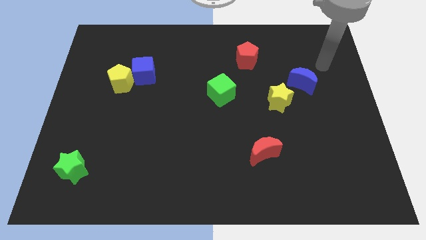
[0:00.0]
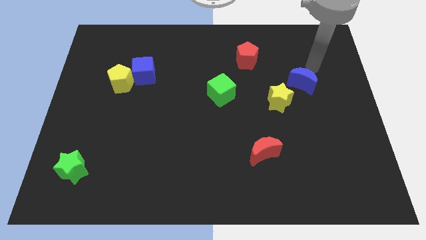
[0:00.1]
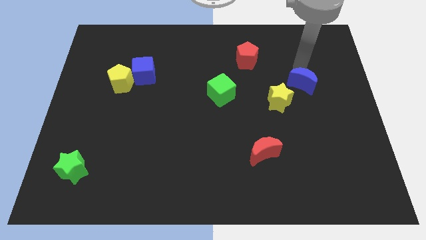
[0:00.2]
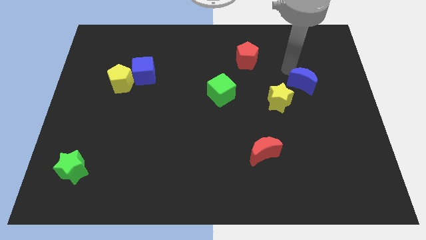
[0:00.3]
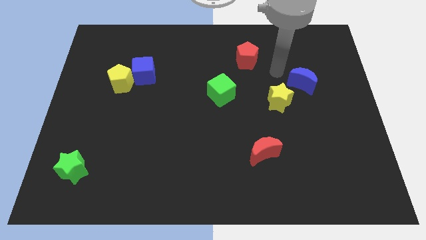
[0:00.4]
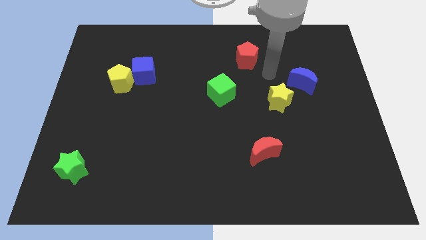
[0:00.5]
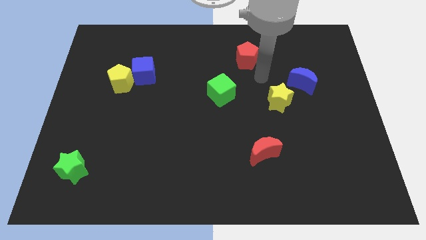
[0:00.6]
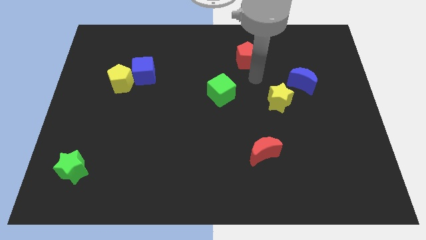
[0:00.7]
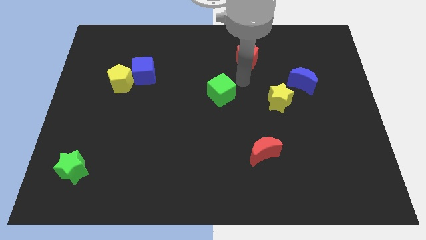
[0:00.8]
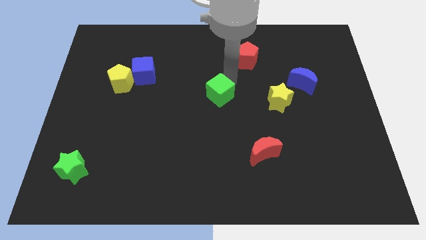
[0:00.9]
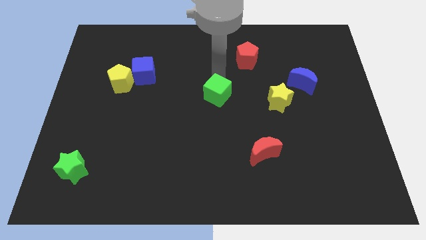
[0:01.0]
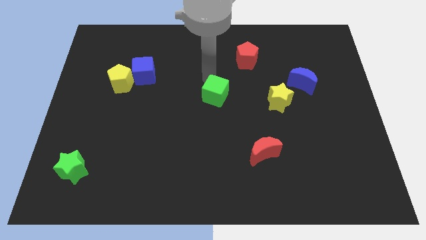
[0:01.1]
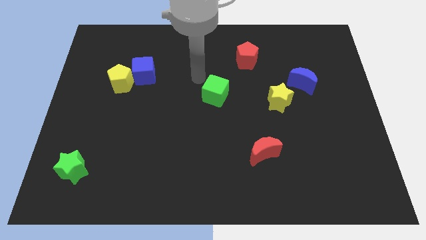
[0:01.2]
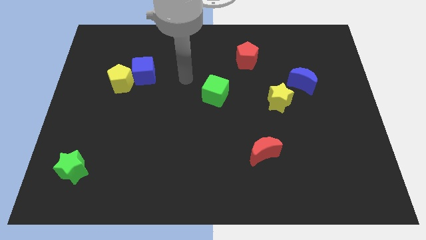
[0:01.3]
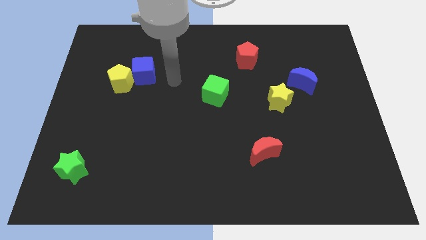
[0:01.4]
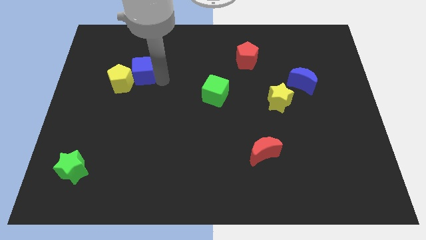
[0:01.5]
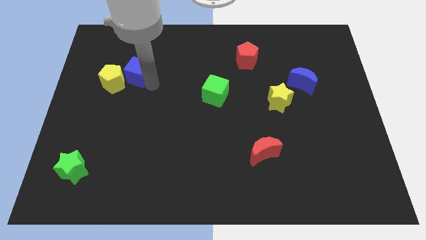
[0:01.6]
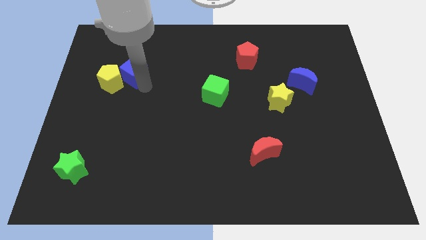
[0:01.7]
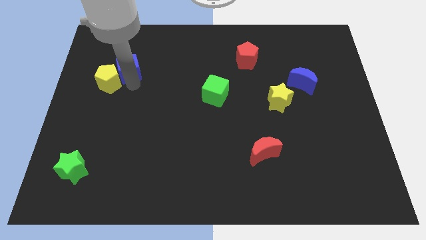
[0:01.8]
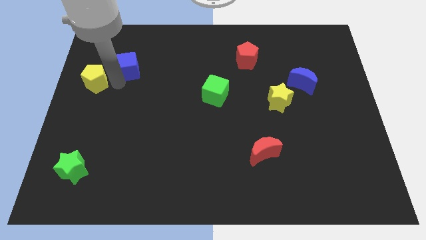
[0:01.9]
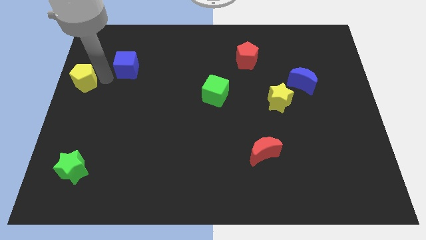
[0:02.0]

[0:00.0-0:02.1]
move the blue cube away from the yellow pentagon

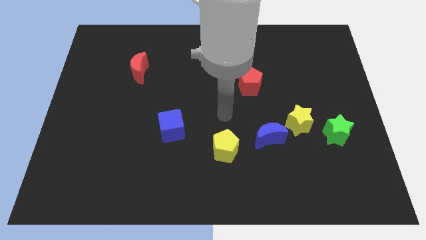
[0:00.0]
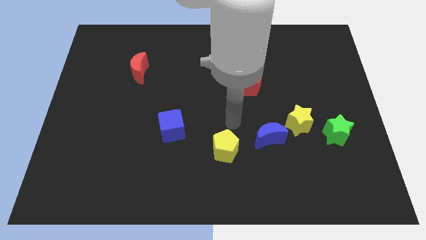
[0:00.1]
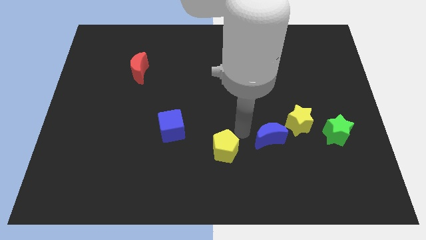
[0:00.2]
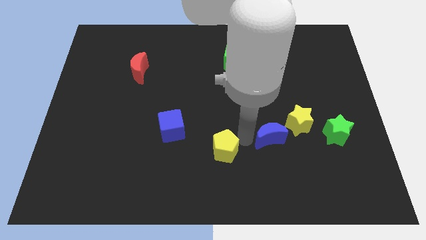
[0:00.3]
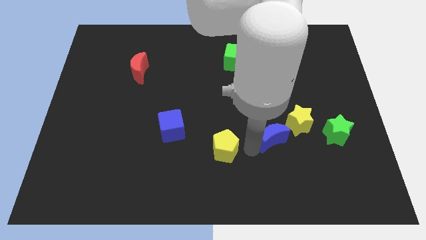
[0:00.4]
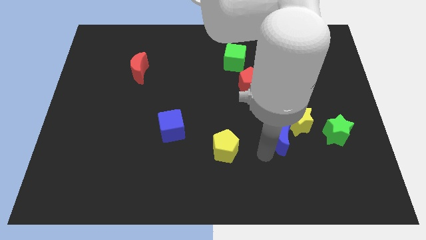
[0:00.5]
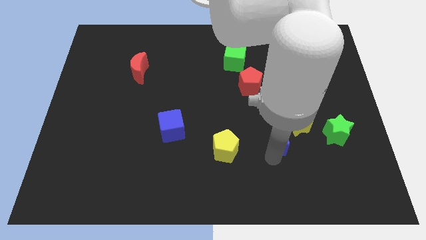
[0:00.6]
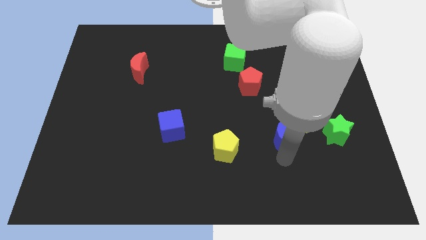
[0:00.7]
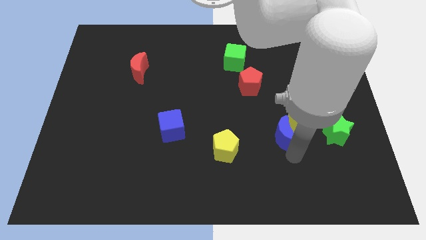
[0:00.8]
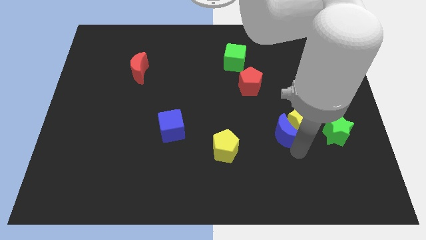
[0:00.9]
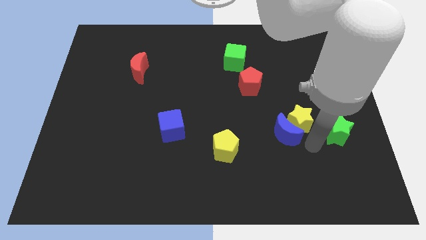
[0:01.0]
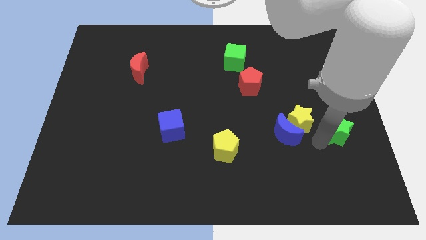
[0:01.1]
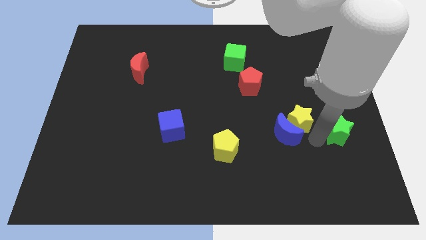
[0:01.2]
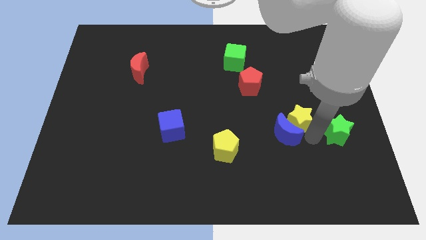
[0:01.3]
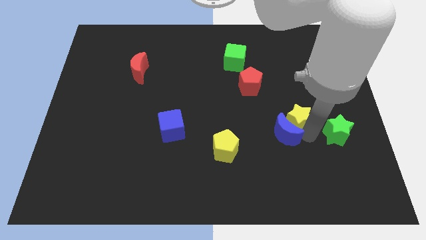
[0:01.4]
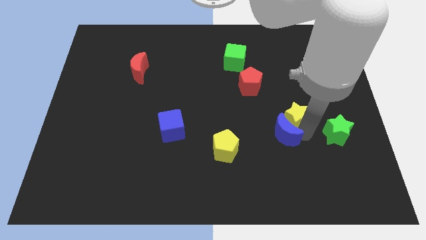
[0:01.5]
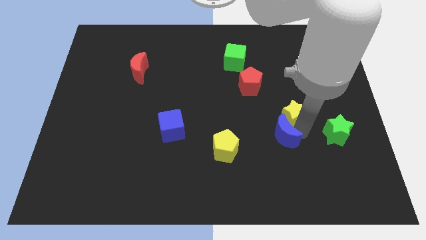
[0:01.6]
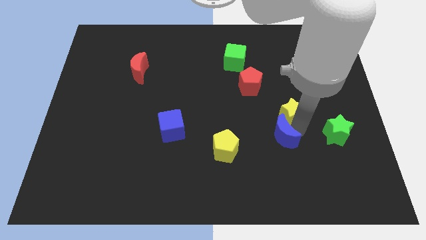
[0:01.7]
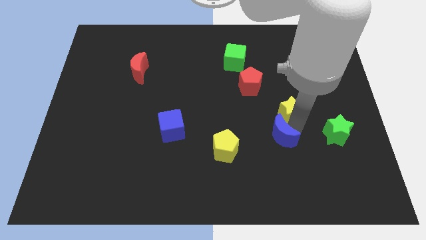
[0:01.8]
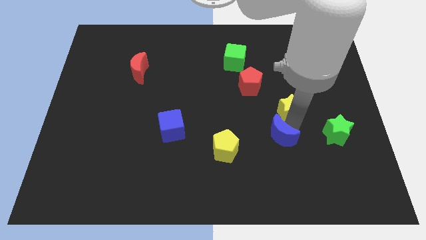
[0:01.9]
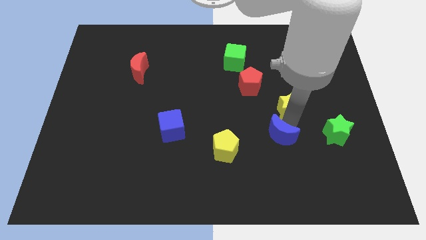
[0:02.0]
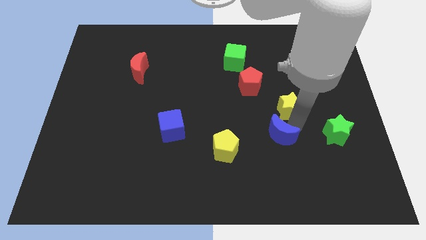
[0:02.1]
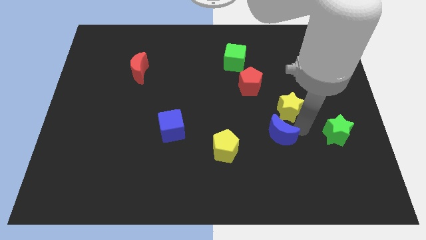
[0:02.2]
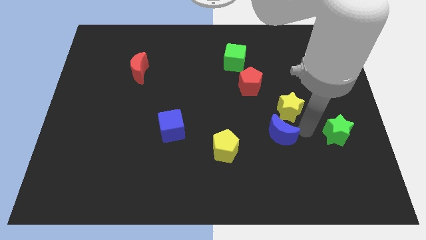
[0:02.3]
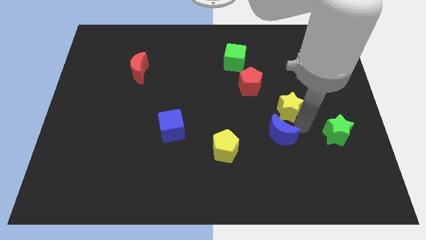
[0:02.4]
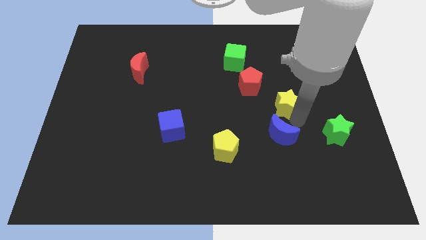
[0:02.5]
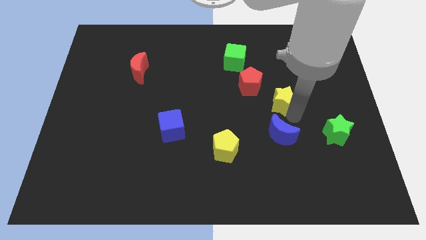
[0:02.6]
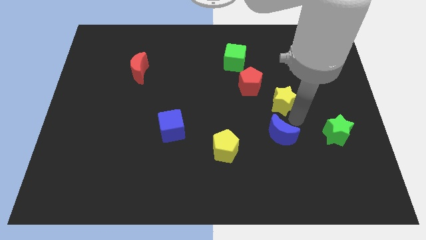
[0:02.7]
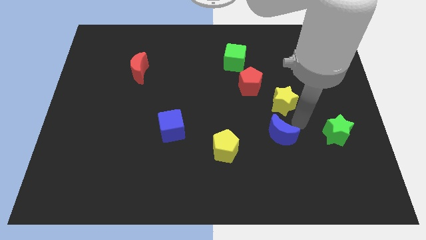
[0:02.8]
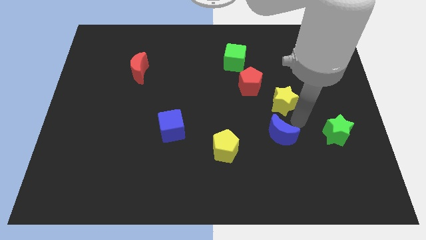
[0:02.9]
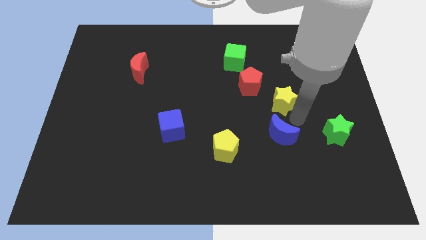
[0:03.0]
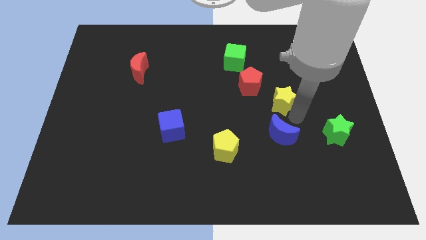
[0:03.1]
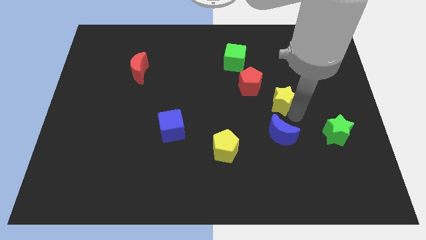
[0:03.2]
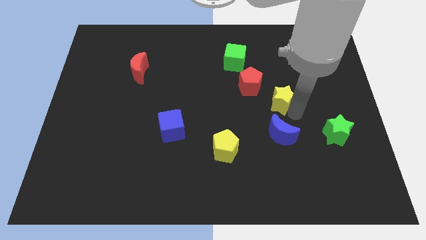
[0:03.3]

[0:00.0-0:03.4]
pull the yellow star apart from the blue moon and green star

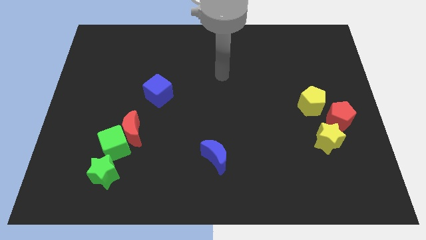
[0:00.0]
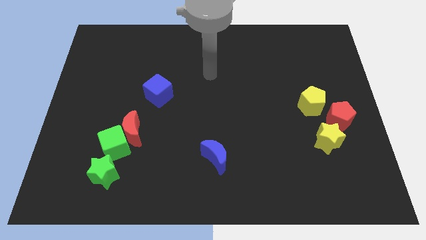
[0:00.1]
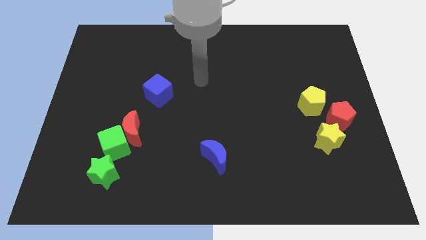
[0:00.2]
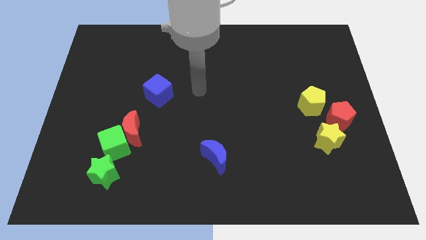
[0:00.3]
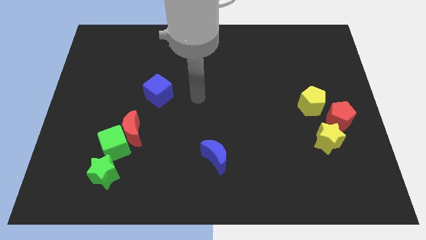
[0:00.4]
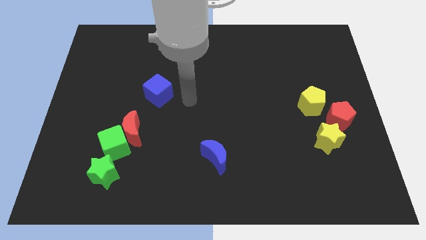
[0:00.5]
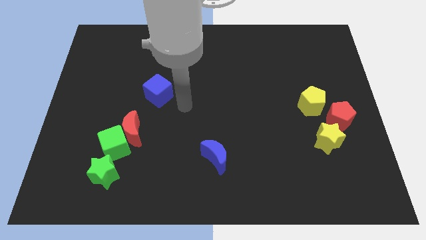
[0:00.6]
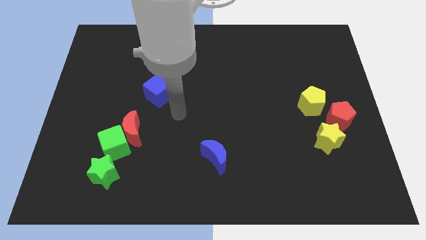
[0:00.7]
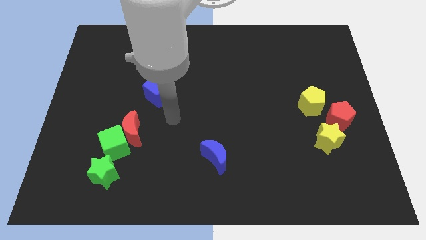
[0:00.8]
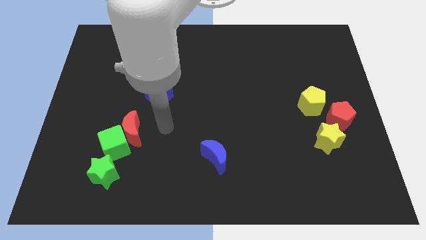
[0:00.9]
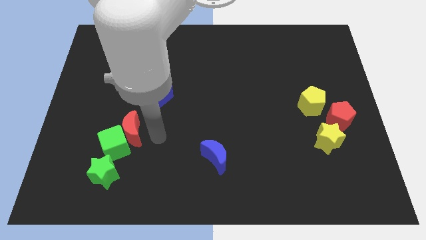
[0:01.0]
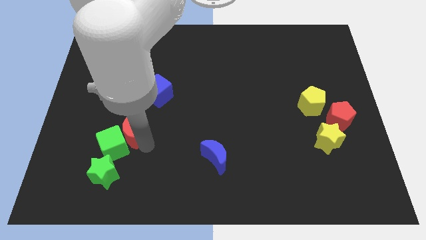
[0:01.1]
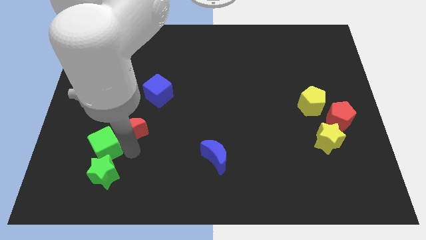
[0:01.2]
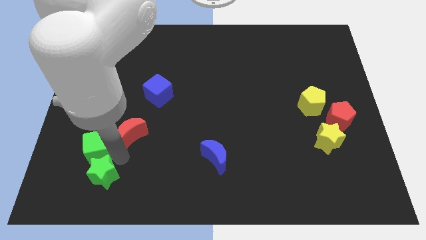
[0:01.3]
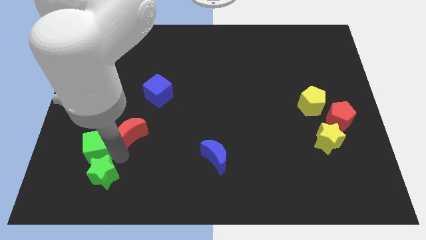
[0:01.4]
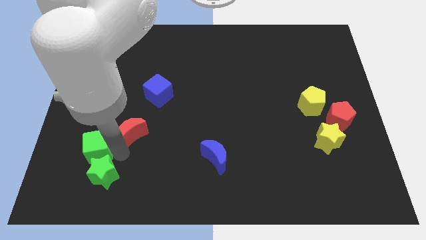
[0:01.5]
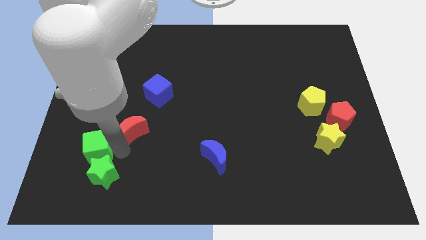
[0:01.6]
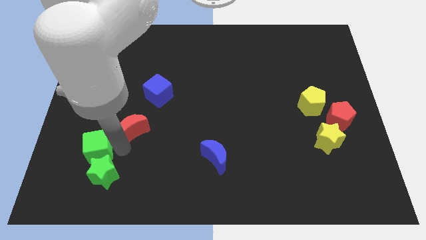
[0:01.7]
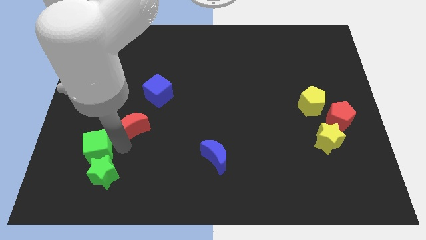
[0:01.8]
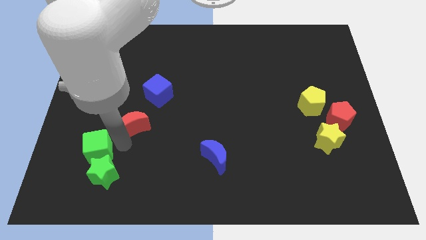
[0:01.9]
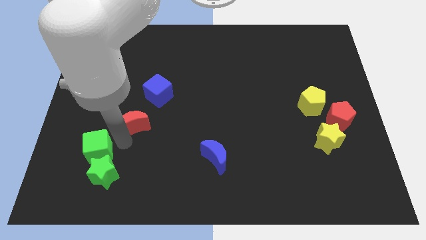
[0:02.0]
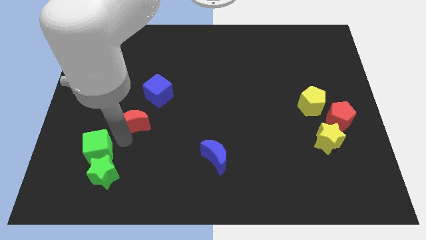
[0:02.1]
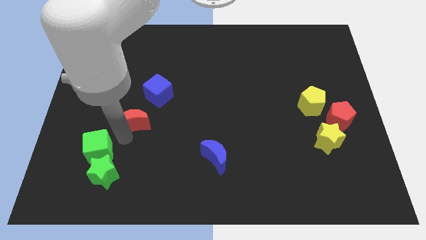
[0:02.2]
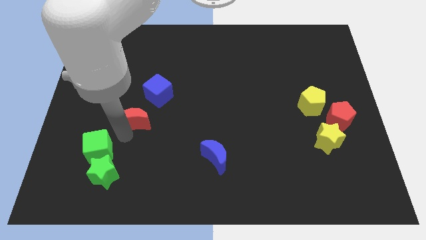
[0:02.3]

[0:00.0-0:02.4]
separate the red moon from the green cube

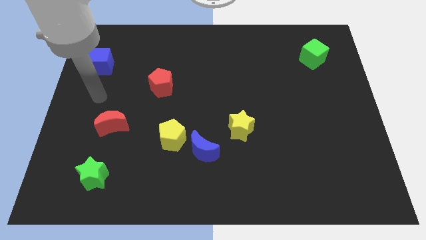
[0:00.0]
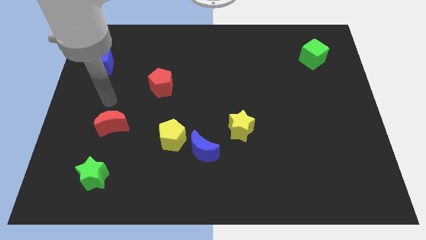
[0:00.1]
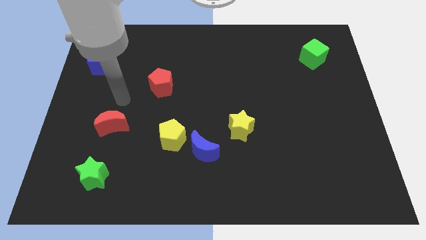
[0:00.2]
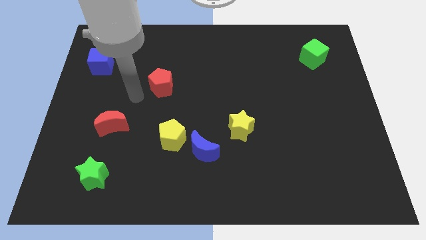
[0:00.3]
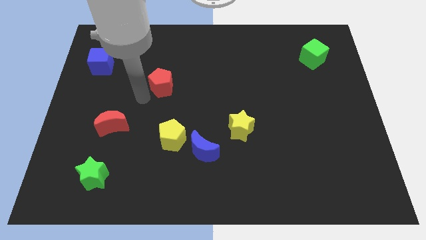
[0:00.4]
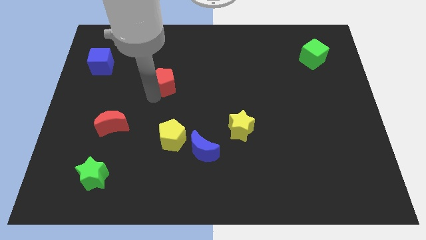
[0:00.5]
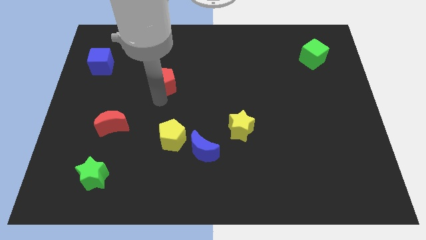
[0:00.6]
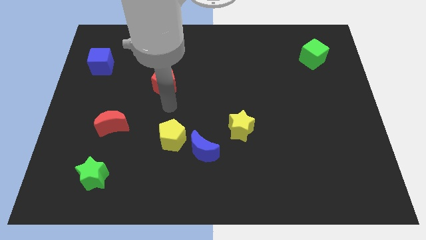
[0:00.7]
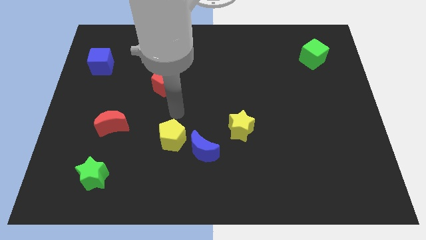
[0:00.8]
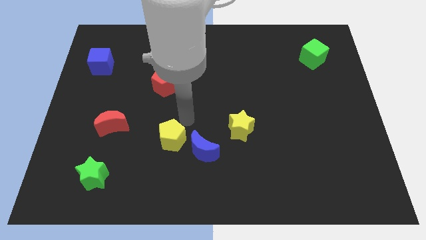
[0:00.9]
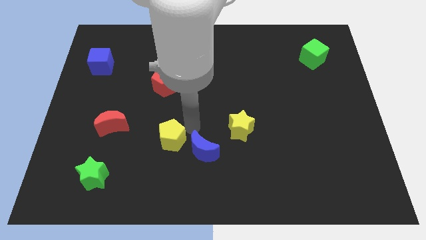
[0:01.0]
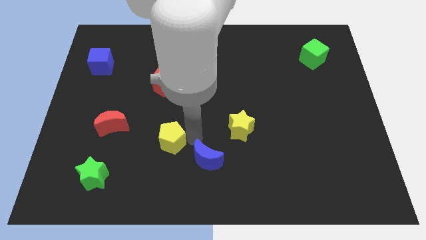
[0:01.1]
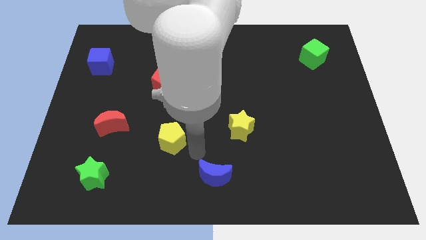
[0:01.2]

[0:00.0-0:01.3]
pull the yellow pentagon apart from the blue moon

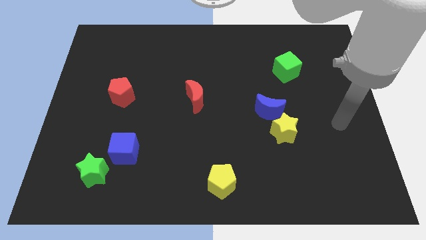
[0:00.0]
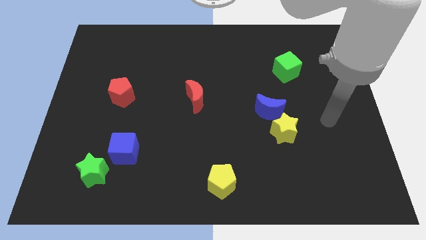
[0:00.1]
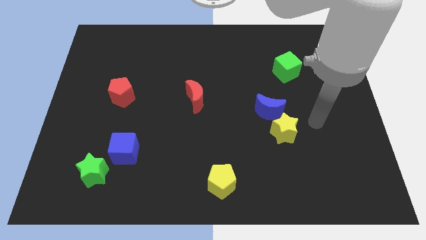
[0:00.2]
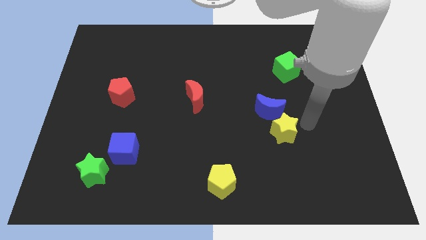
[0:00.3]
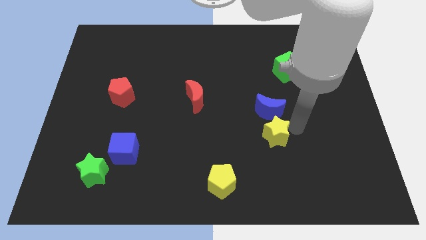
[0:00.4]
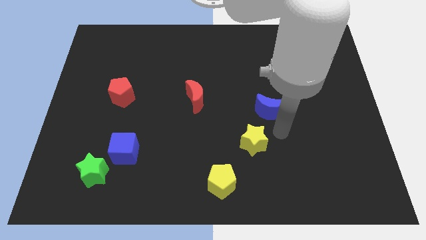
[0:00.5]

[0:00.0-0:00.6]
separate the blue moon from the yellow star
